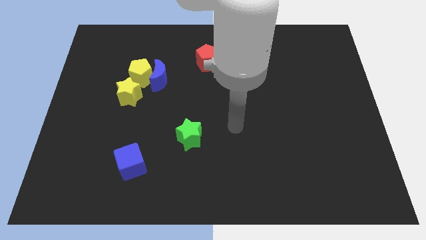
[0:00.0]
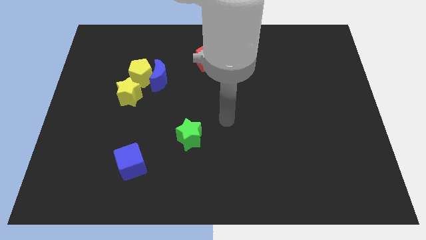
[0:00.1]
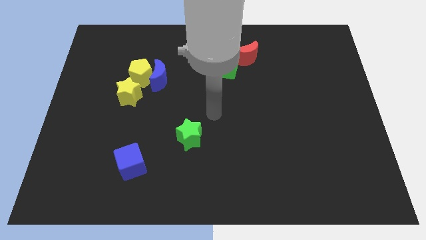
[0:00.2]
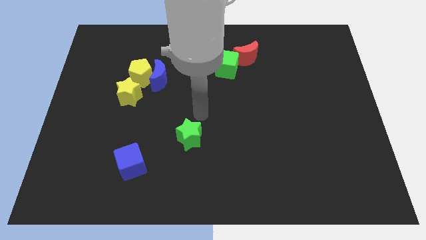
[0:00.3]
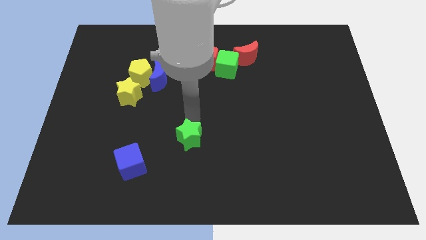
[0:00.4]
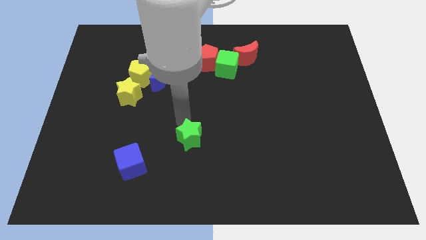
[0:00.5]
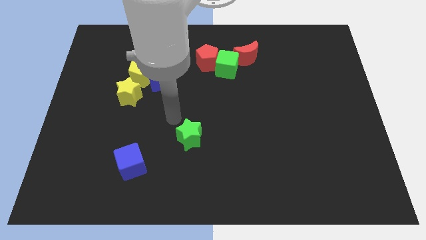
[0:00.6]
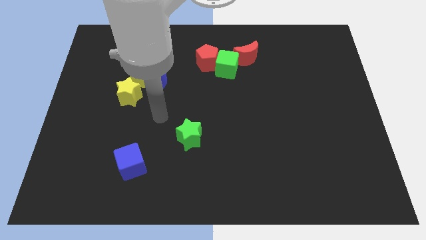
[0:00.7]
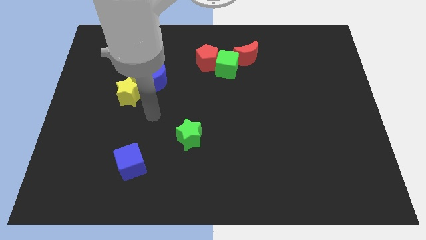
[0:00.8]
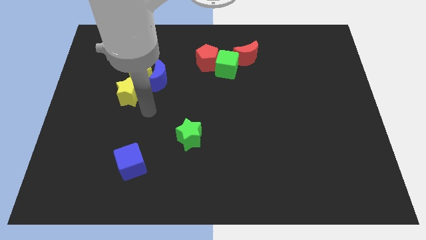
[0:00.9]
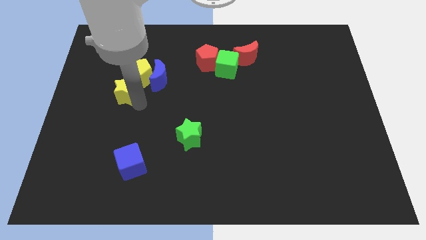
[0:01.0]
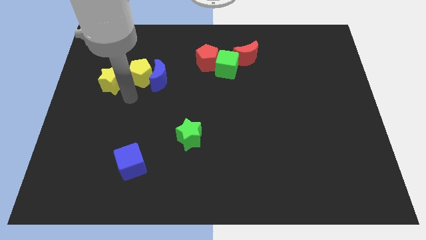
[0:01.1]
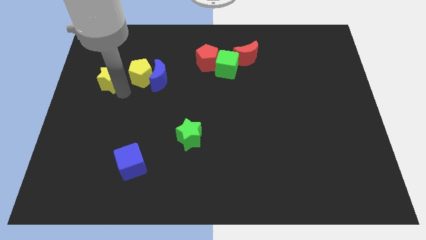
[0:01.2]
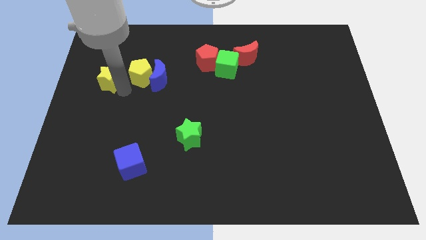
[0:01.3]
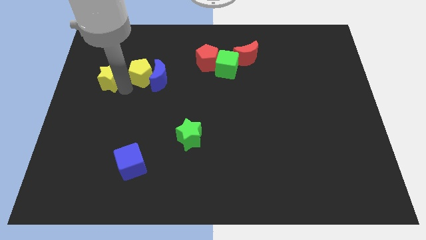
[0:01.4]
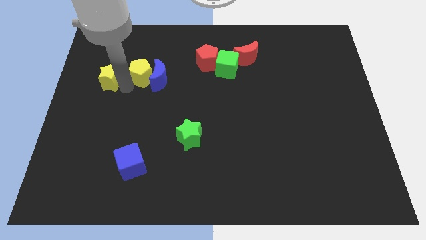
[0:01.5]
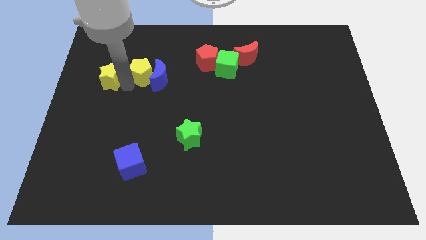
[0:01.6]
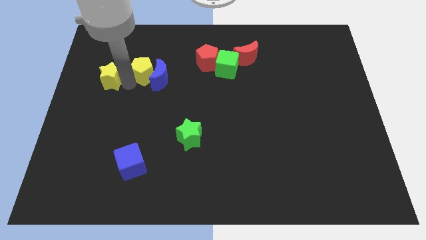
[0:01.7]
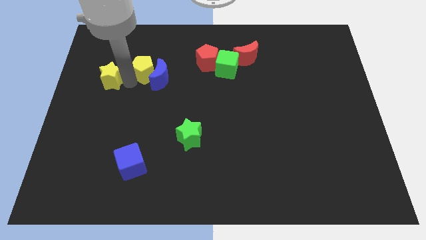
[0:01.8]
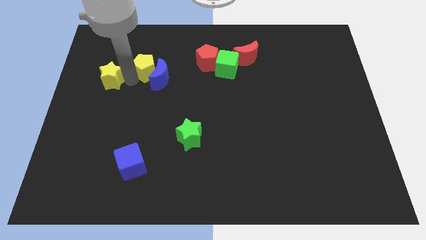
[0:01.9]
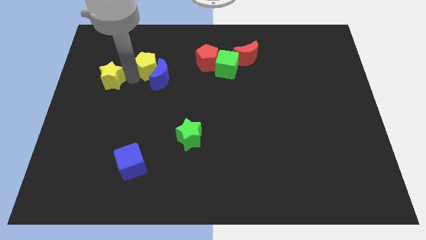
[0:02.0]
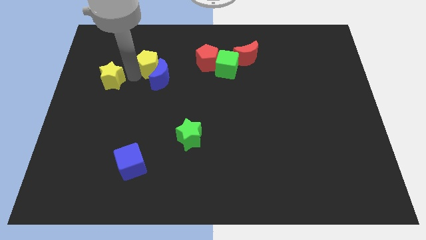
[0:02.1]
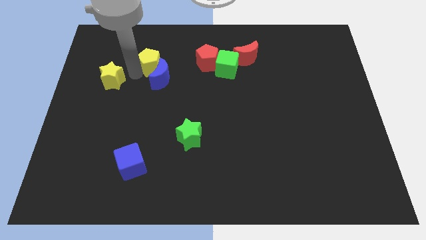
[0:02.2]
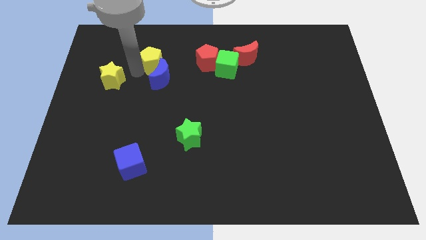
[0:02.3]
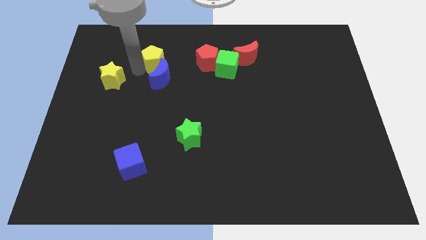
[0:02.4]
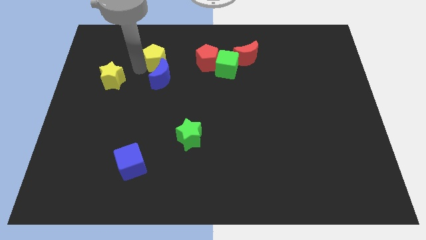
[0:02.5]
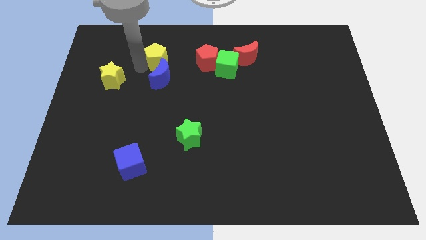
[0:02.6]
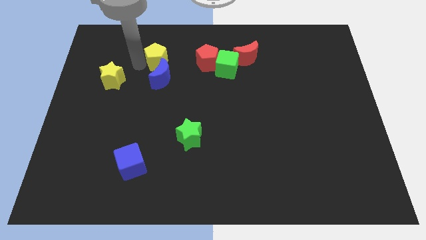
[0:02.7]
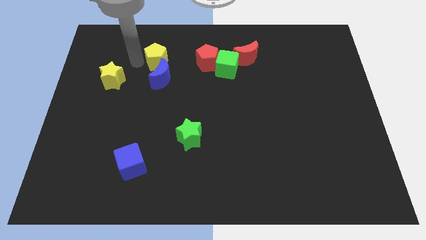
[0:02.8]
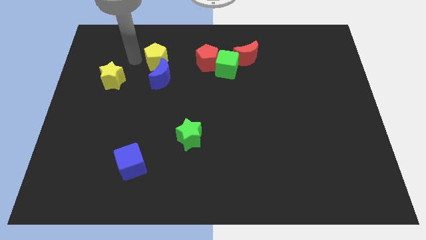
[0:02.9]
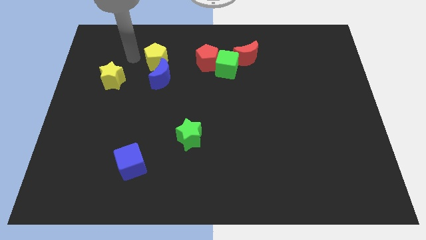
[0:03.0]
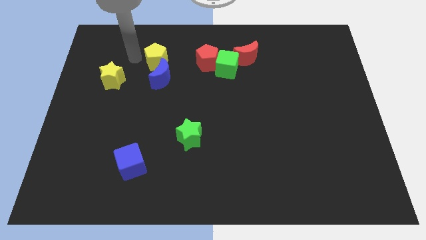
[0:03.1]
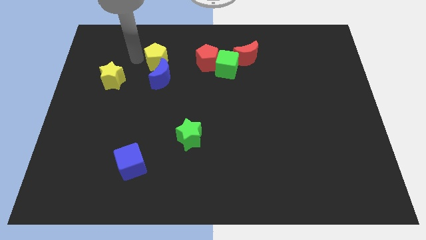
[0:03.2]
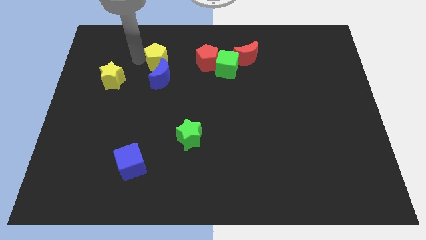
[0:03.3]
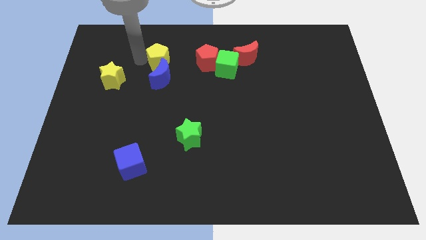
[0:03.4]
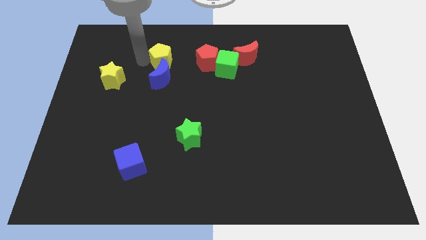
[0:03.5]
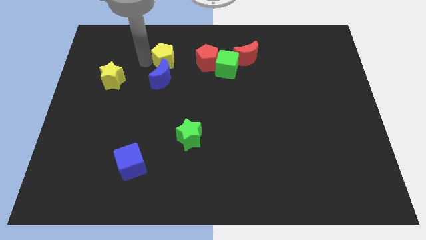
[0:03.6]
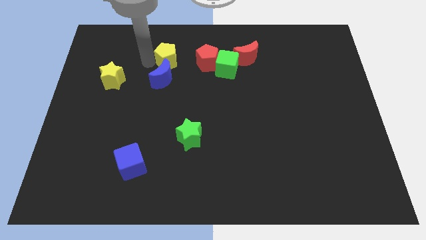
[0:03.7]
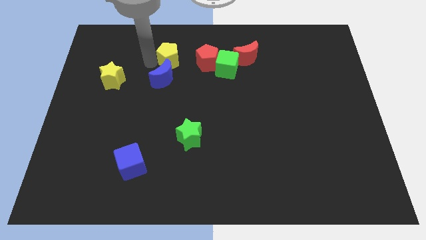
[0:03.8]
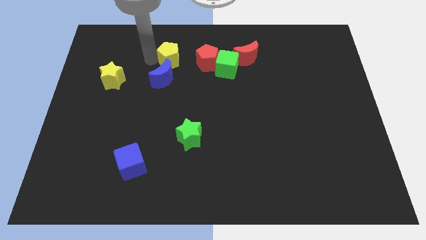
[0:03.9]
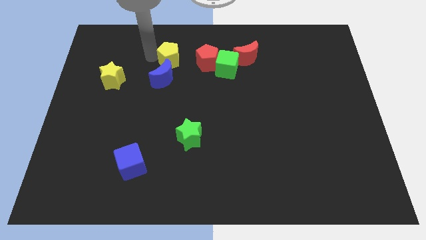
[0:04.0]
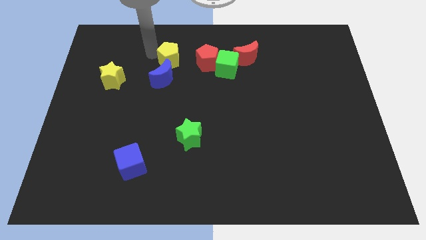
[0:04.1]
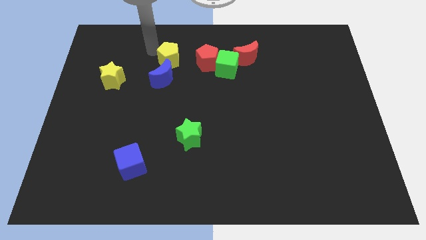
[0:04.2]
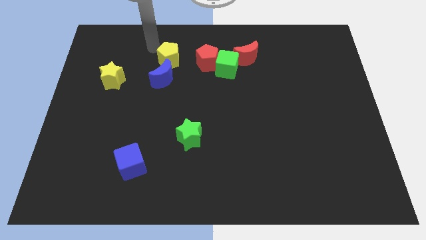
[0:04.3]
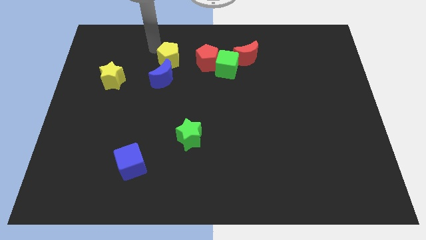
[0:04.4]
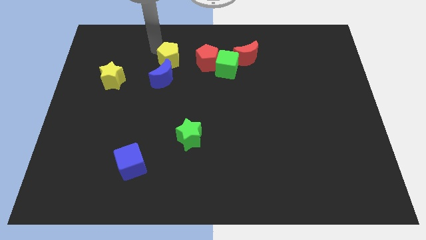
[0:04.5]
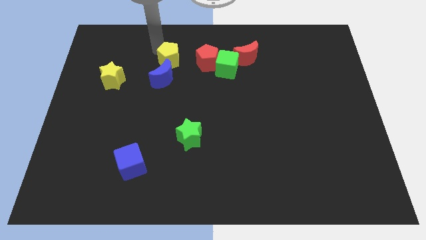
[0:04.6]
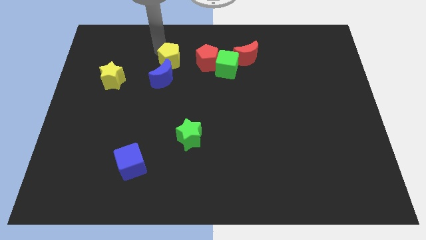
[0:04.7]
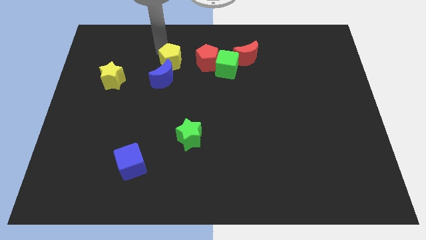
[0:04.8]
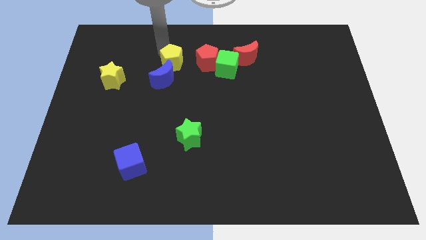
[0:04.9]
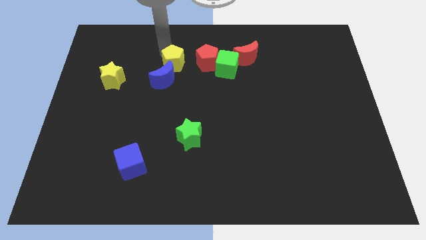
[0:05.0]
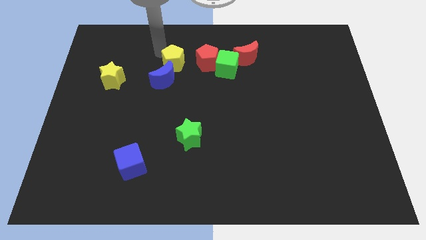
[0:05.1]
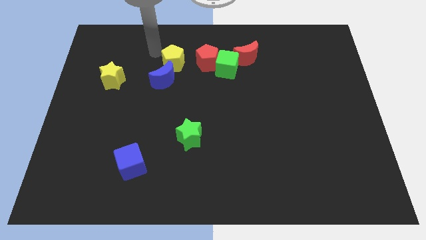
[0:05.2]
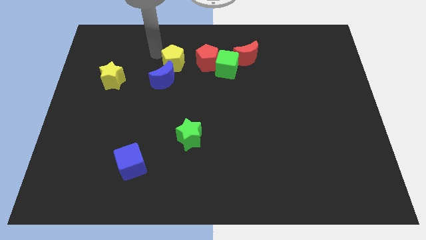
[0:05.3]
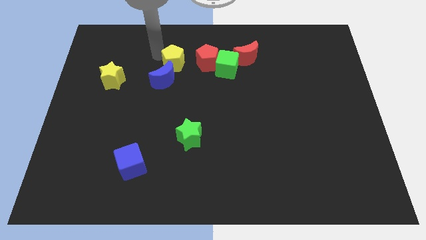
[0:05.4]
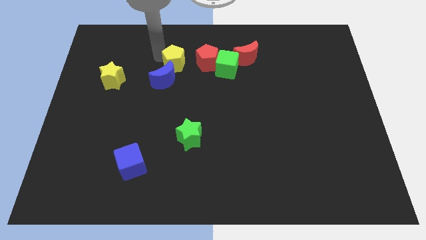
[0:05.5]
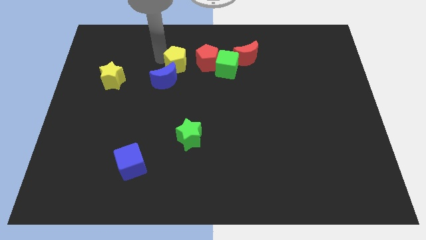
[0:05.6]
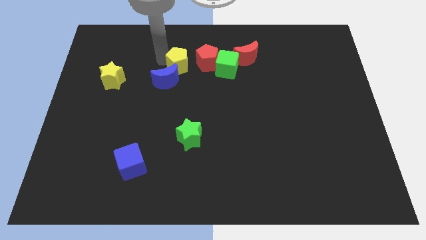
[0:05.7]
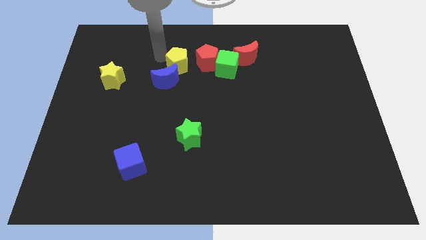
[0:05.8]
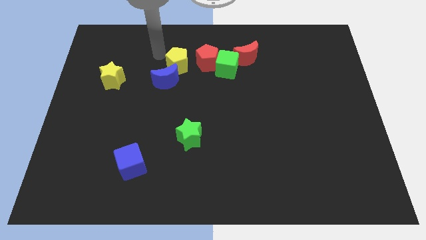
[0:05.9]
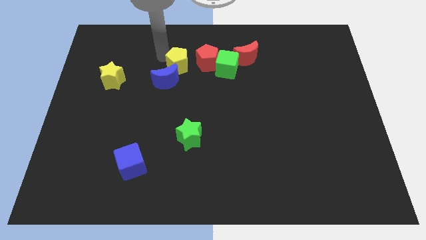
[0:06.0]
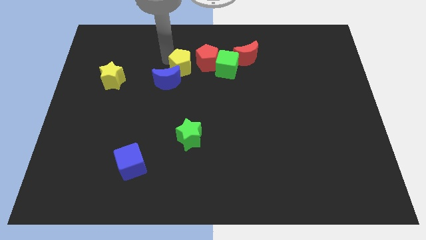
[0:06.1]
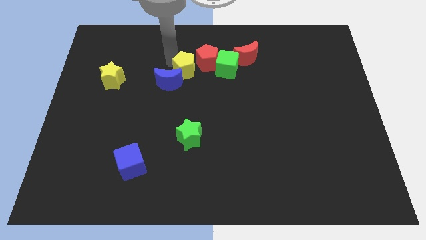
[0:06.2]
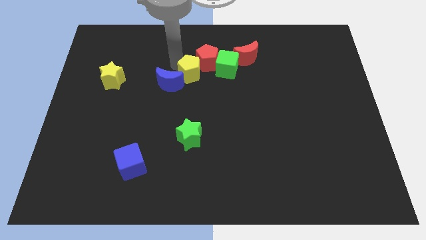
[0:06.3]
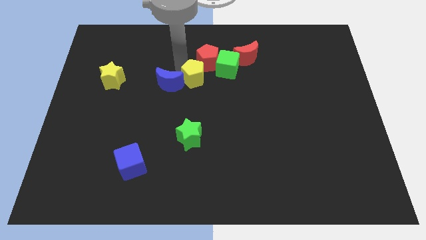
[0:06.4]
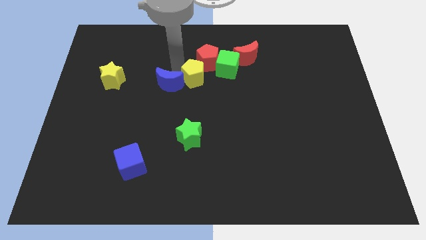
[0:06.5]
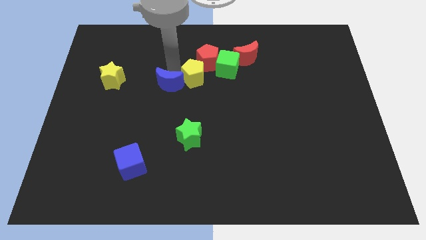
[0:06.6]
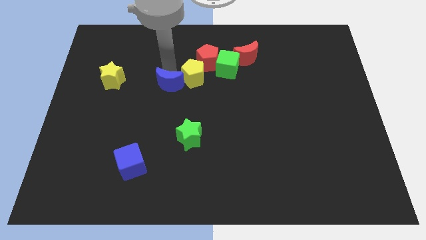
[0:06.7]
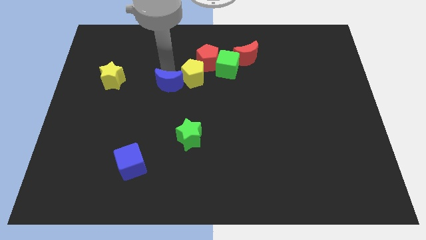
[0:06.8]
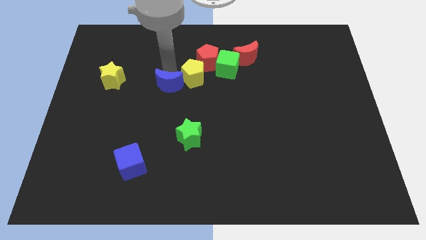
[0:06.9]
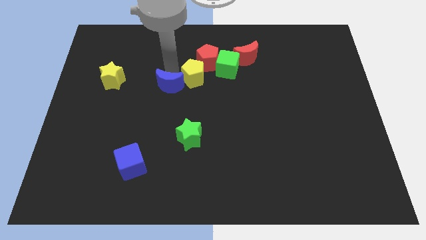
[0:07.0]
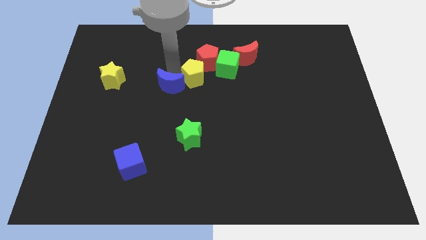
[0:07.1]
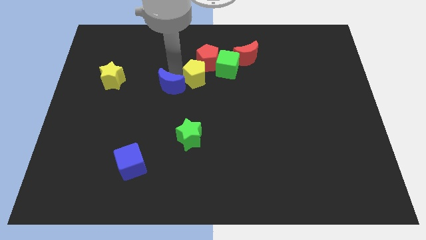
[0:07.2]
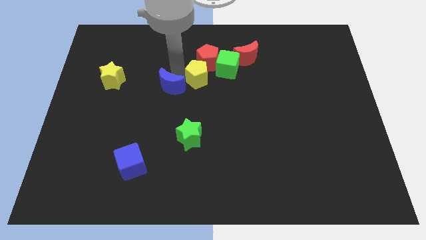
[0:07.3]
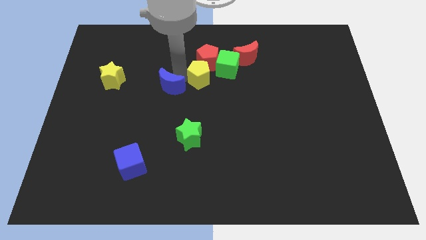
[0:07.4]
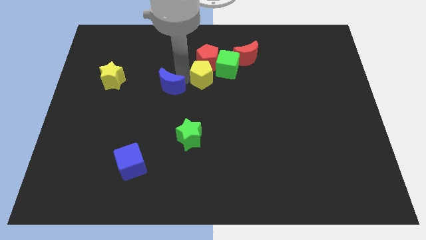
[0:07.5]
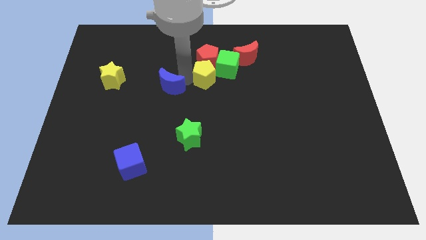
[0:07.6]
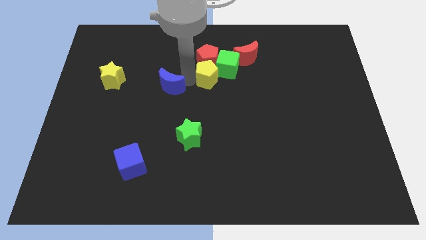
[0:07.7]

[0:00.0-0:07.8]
push the yellow pentagon to the bottom left side of the red moon
